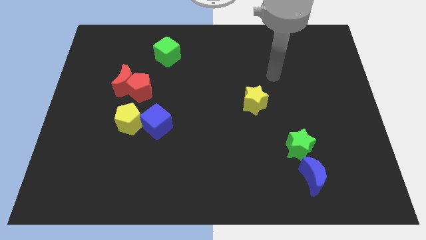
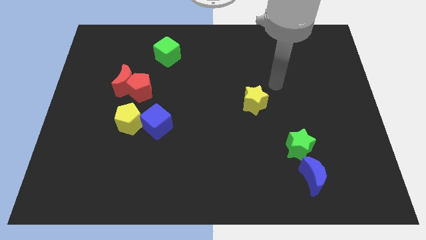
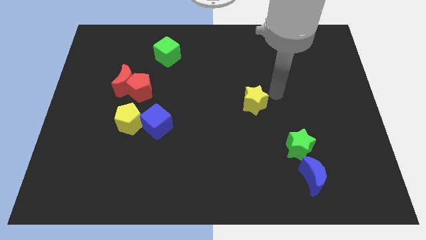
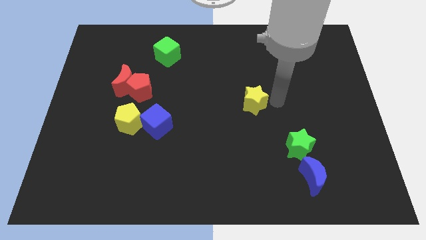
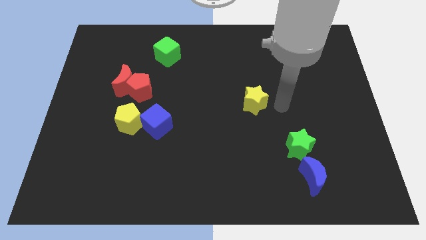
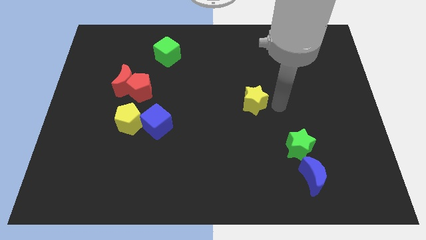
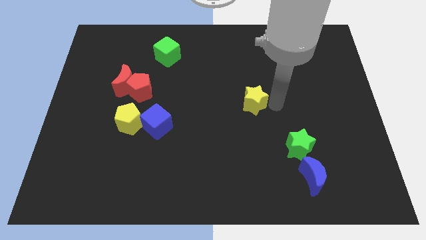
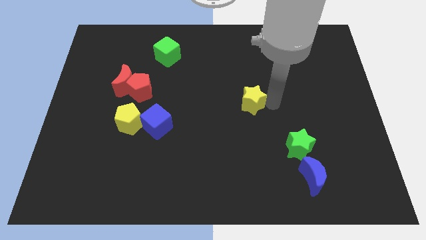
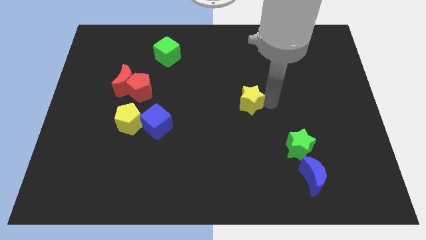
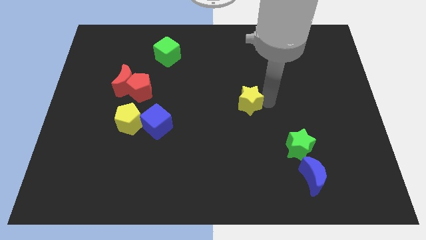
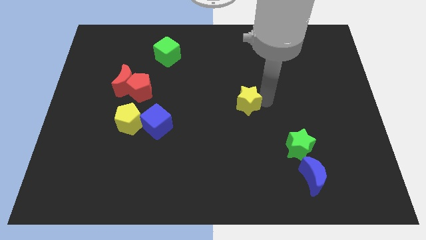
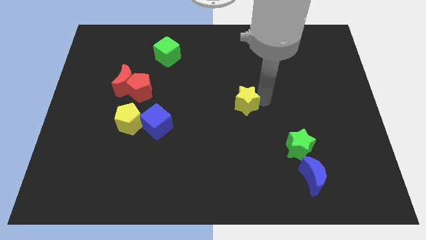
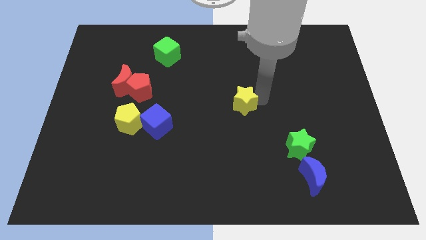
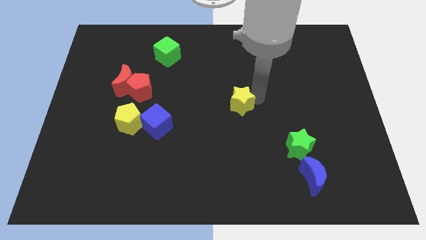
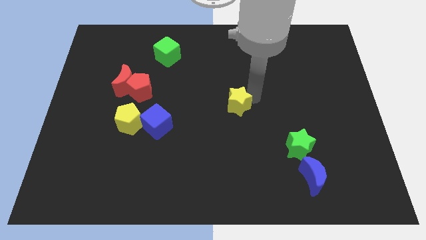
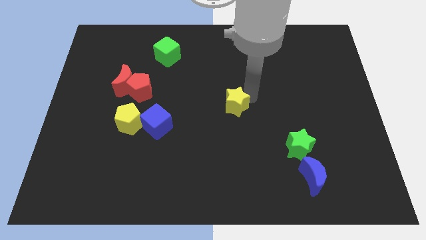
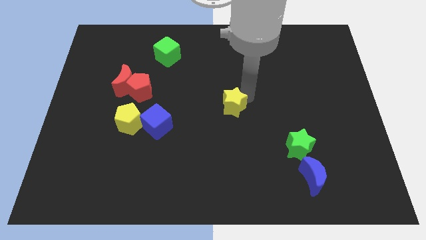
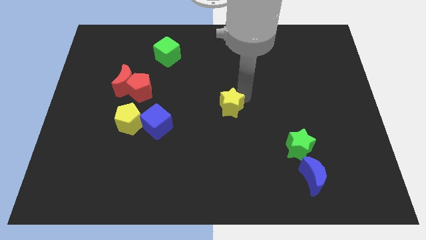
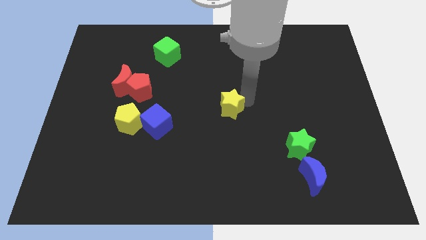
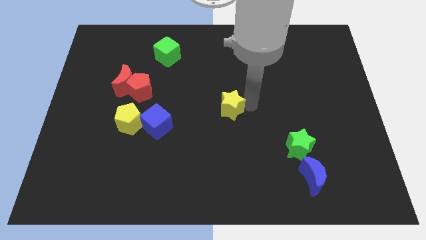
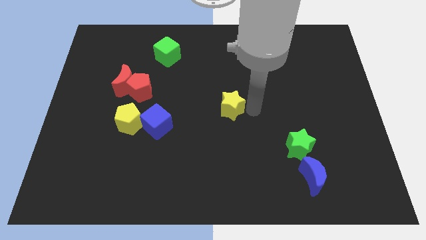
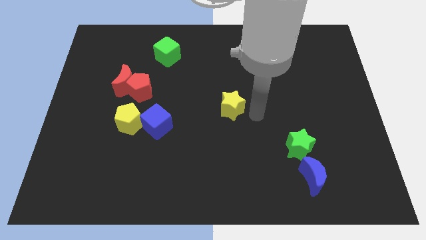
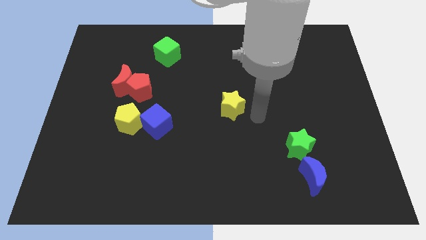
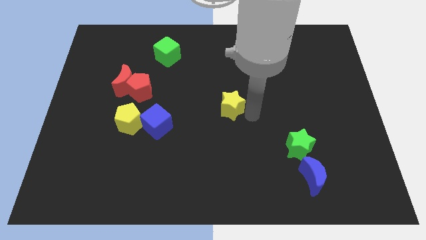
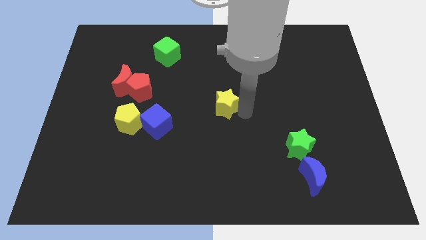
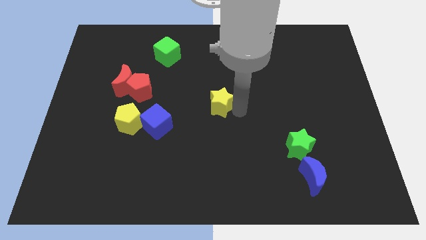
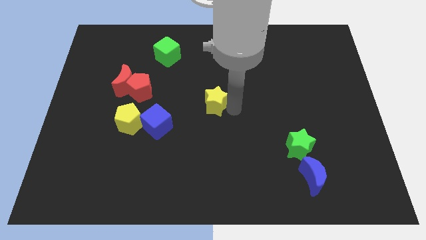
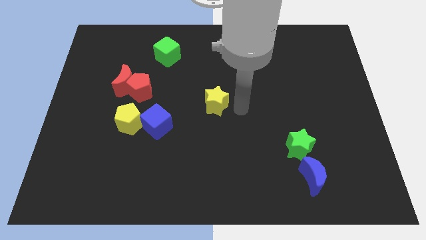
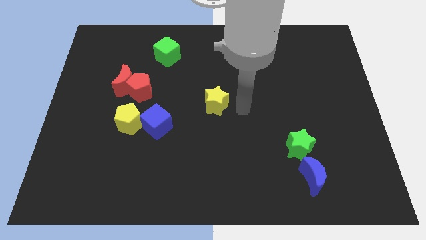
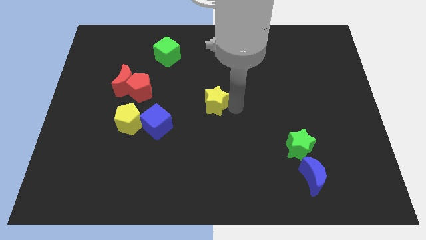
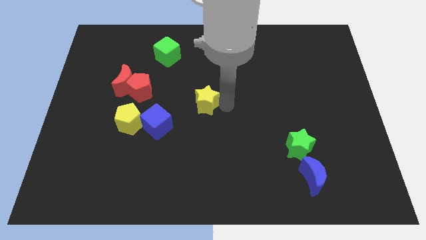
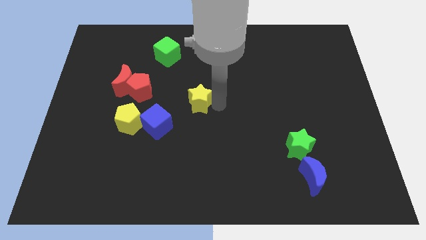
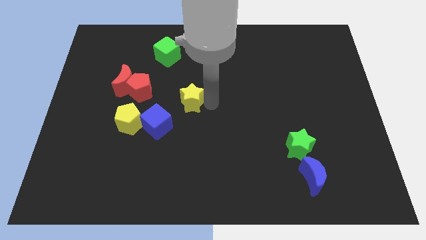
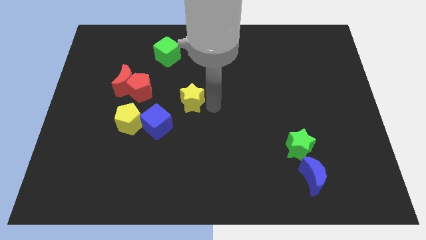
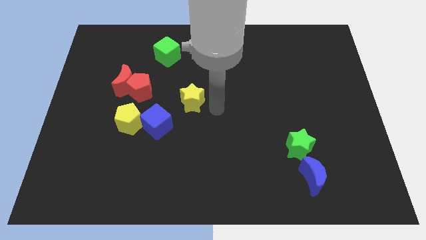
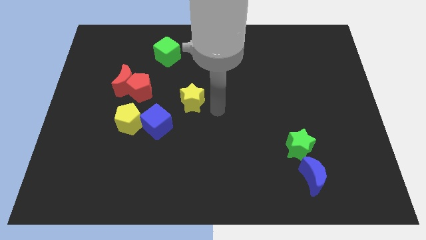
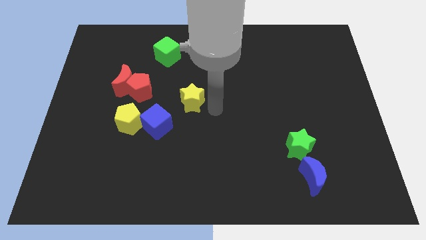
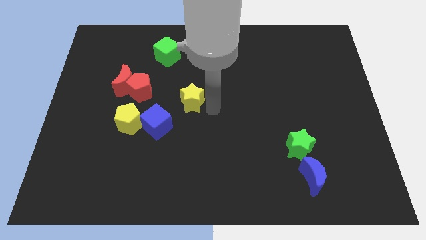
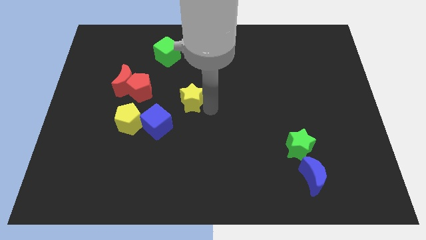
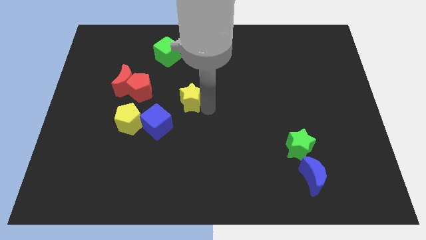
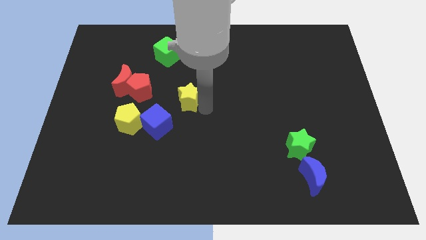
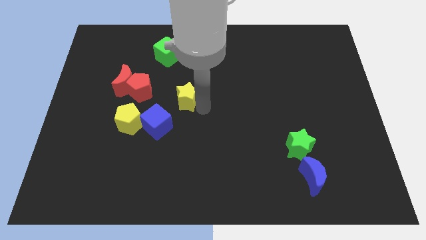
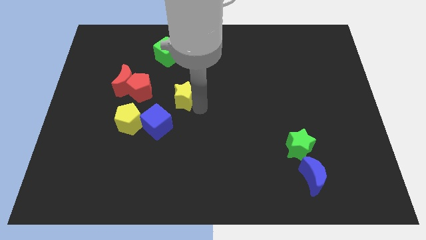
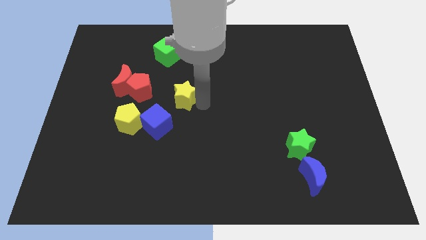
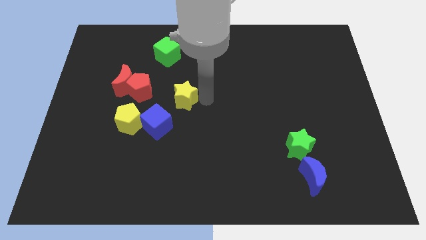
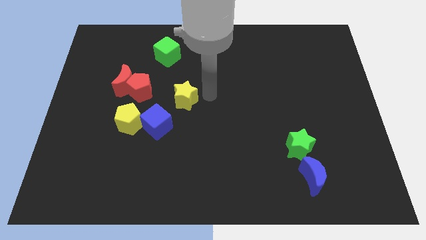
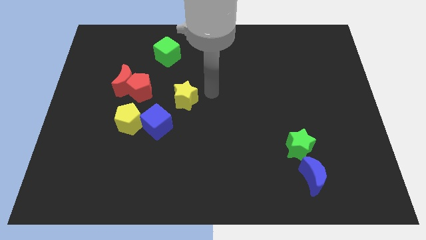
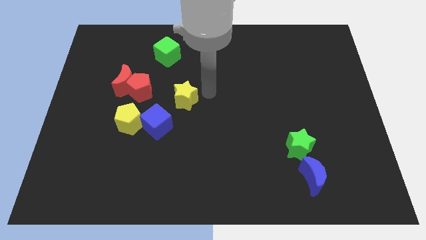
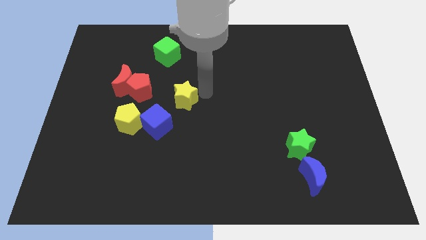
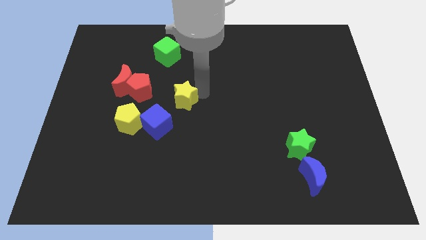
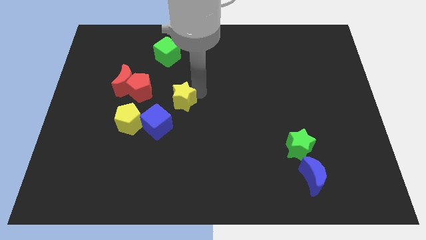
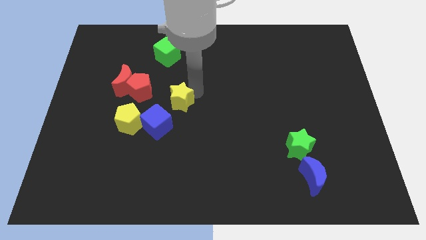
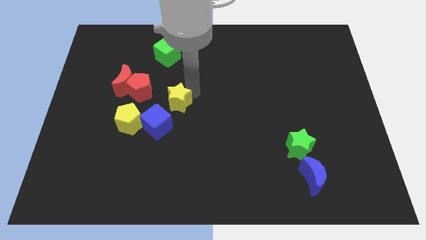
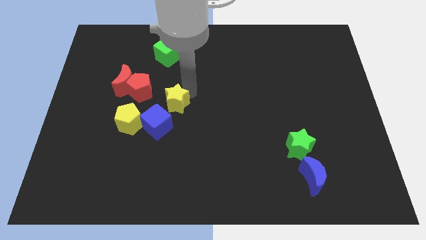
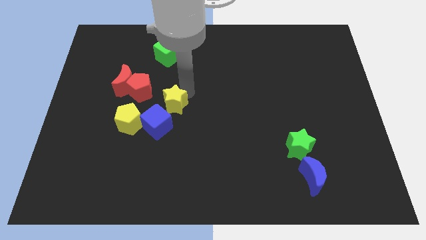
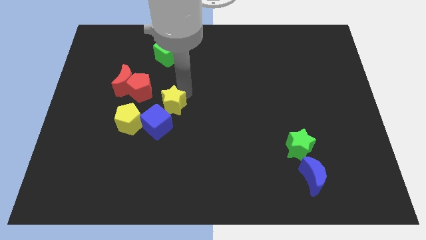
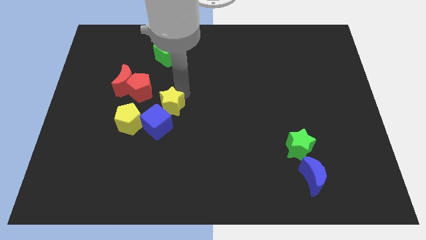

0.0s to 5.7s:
move the yellow star to the left

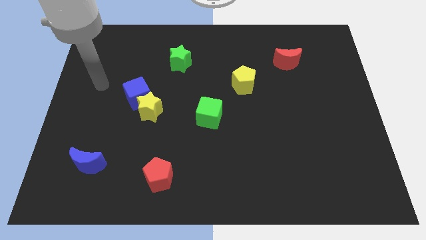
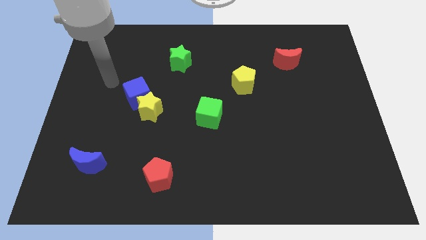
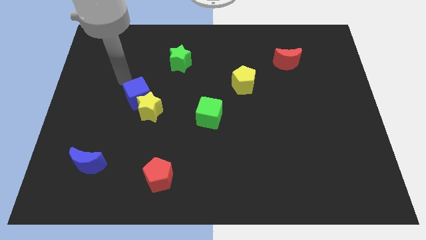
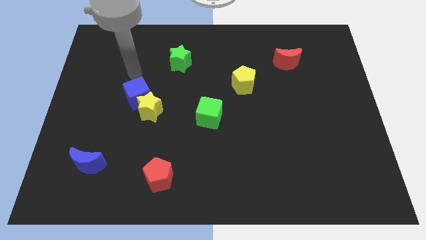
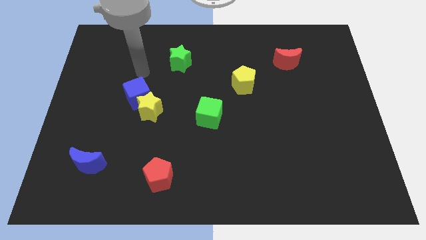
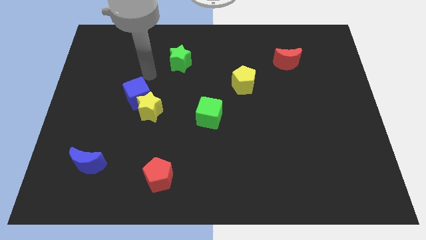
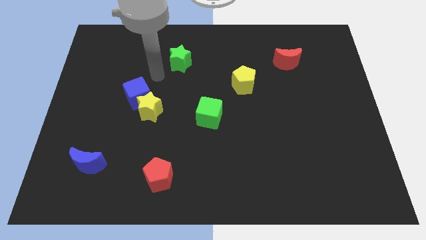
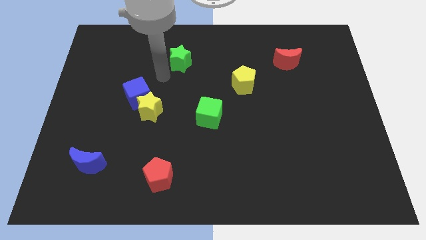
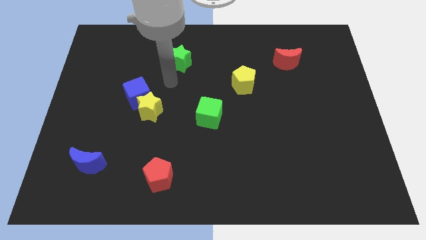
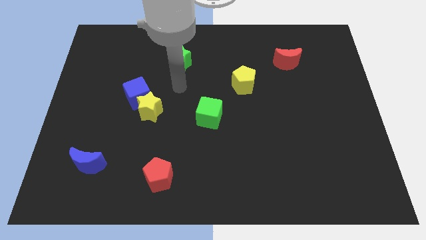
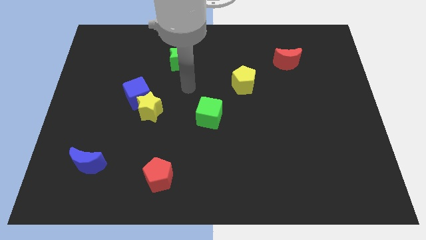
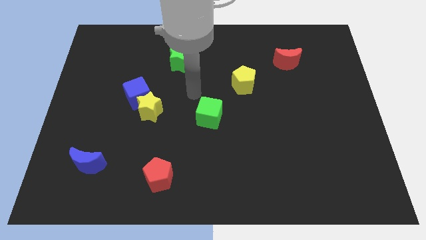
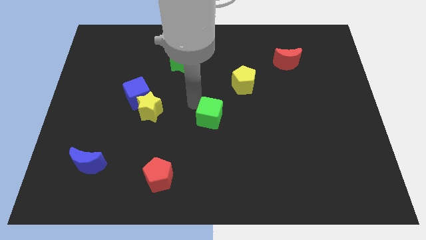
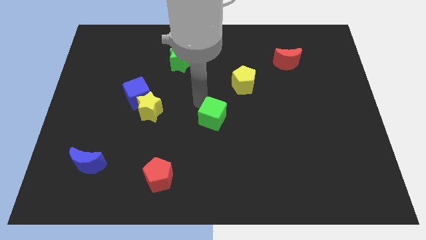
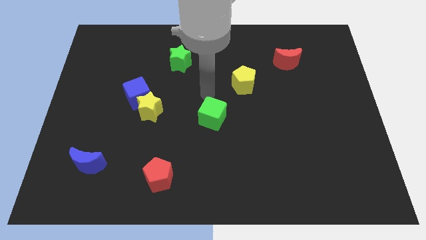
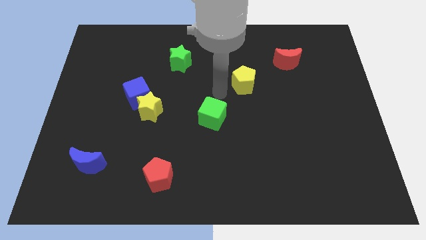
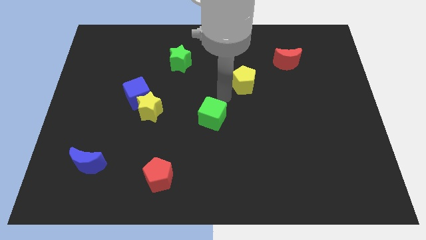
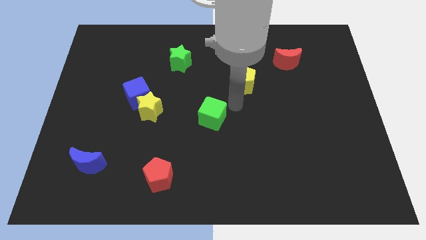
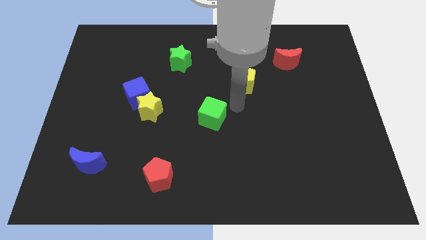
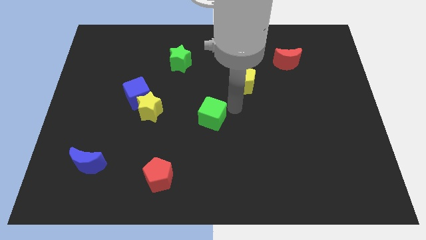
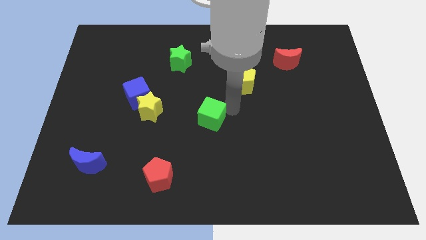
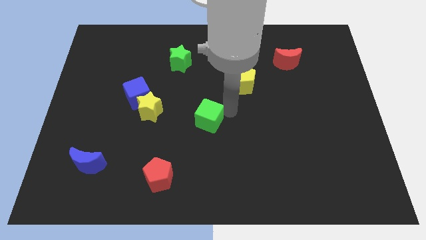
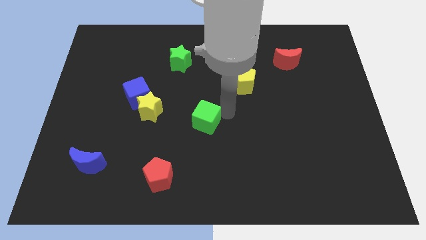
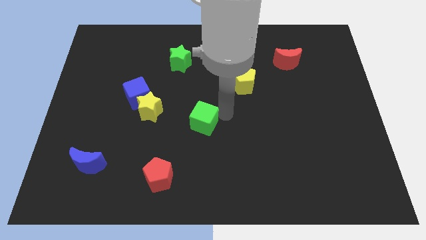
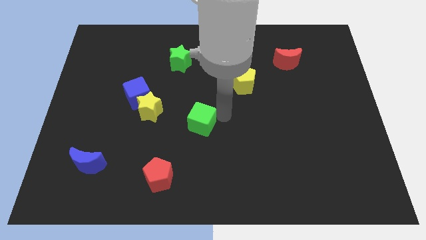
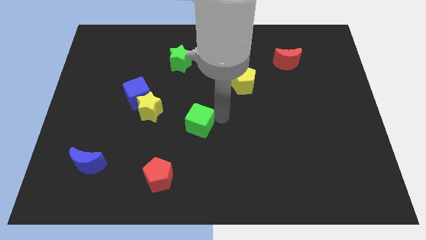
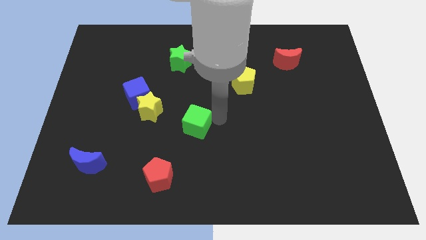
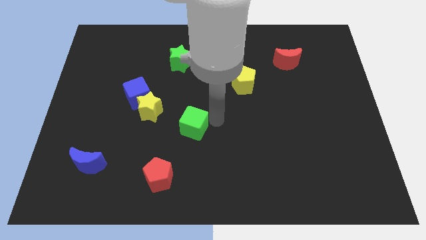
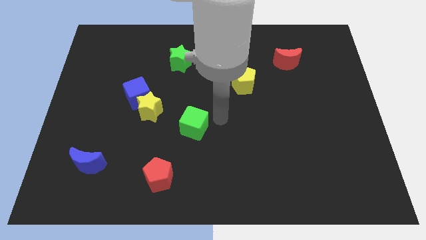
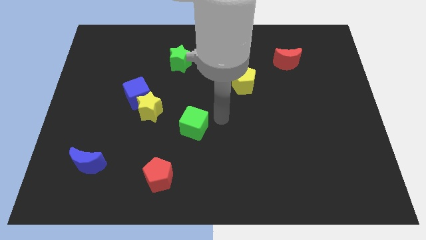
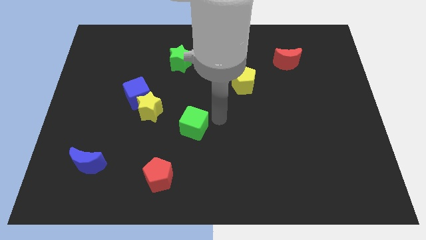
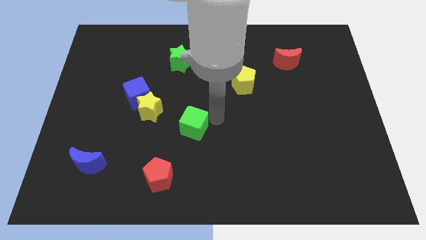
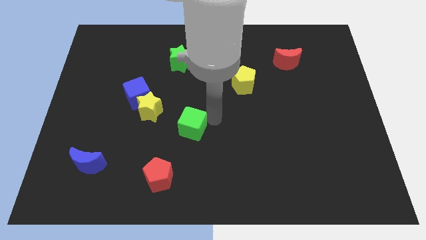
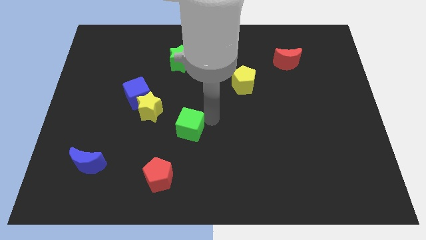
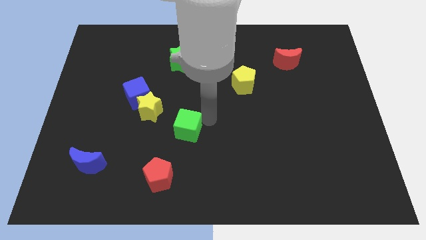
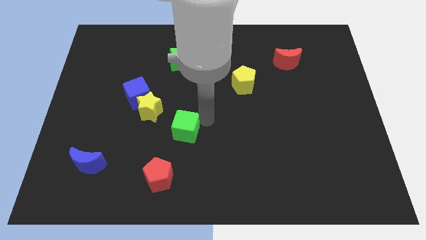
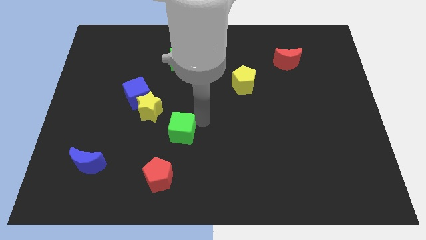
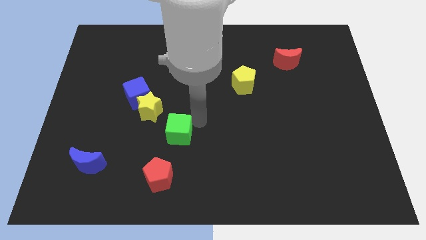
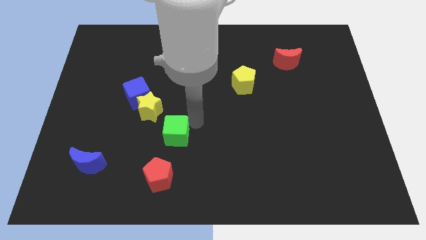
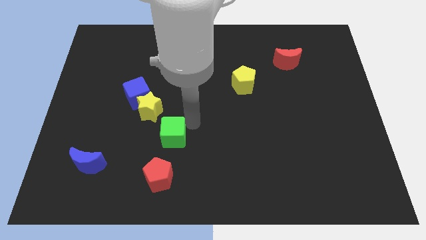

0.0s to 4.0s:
slightly slide the green cube left
